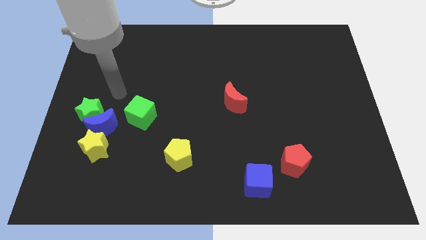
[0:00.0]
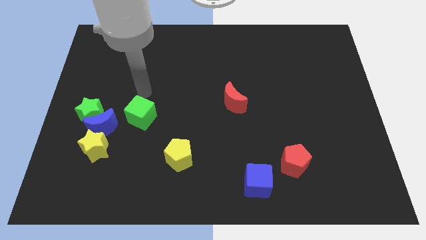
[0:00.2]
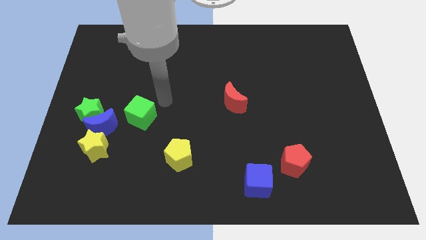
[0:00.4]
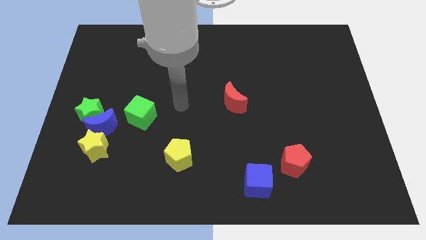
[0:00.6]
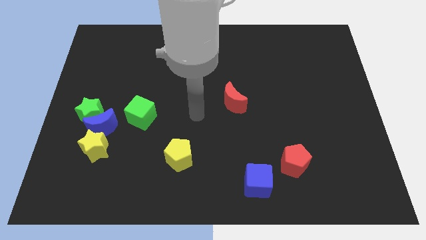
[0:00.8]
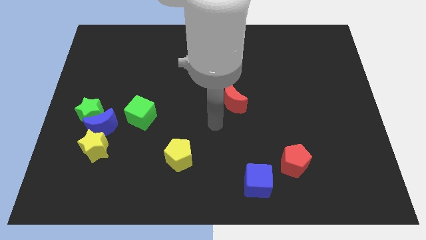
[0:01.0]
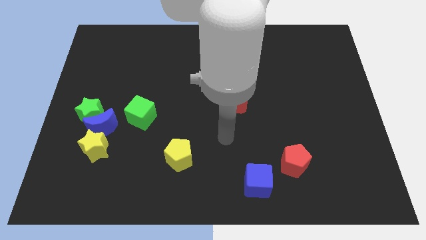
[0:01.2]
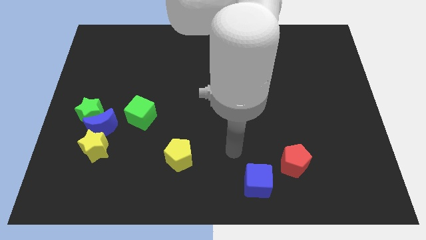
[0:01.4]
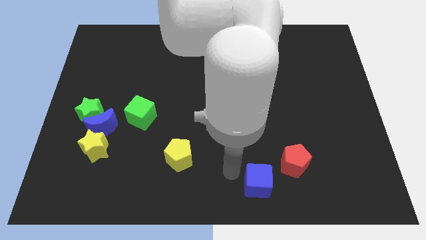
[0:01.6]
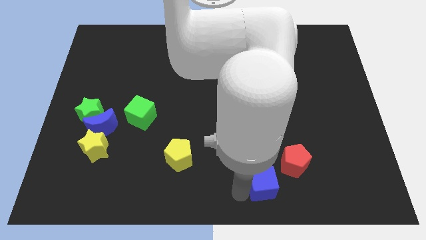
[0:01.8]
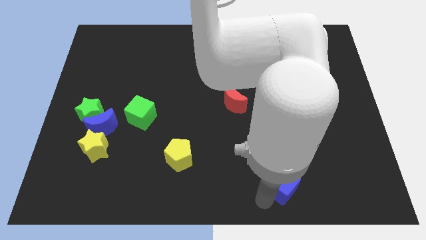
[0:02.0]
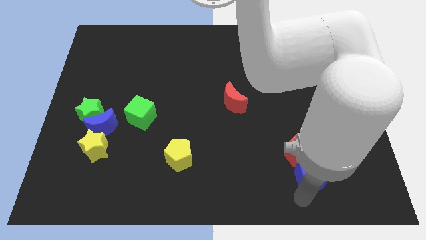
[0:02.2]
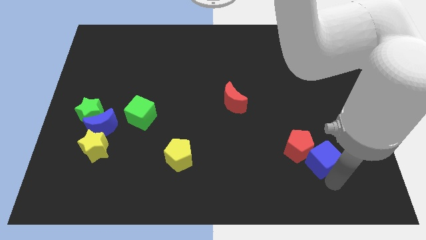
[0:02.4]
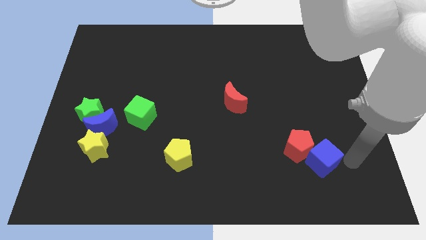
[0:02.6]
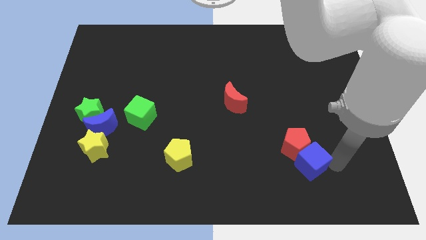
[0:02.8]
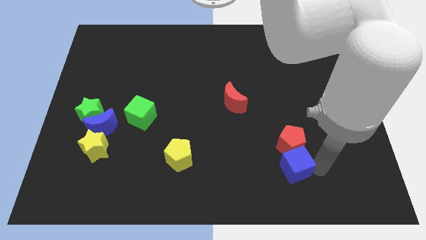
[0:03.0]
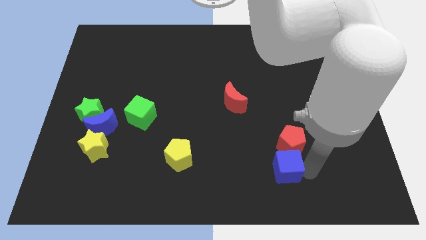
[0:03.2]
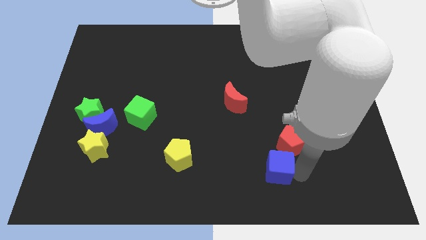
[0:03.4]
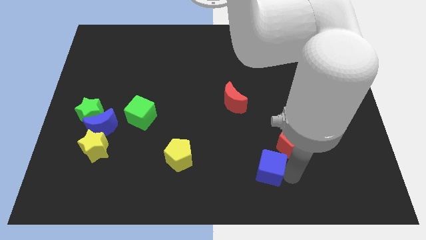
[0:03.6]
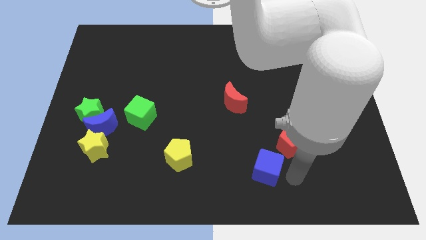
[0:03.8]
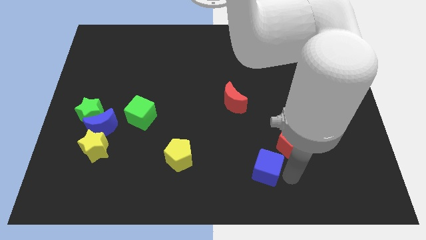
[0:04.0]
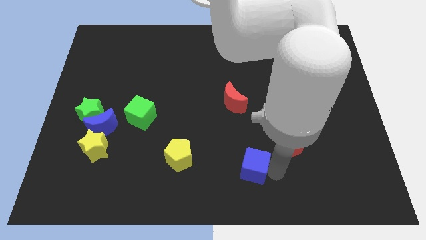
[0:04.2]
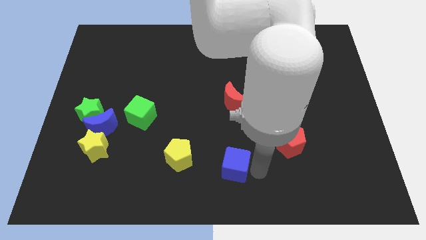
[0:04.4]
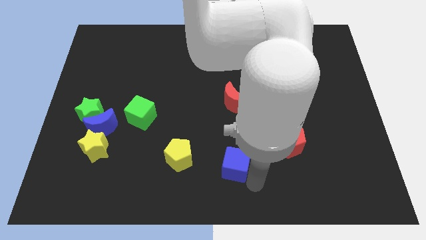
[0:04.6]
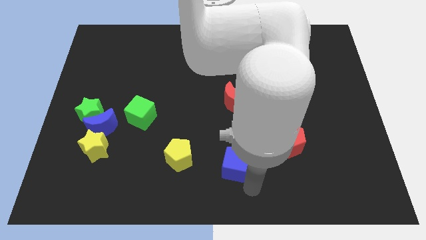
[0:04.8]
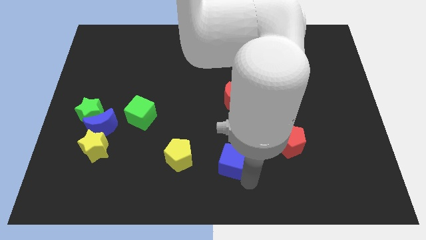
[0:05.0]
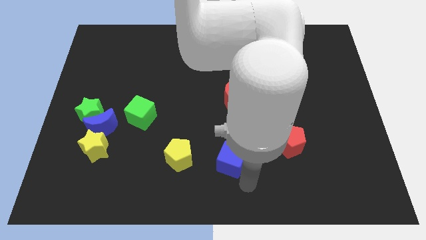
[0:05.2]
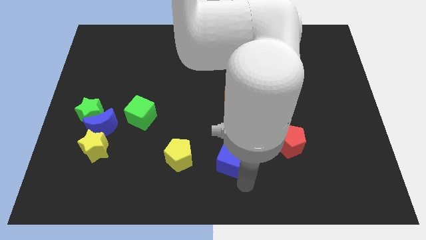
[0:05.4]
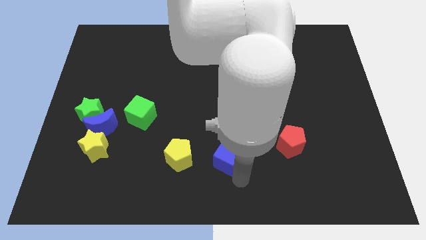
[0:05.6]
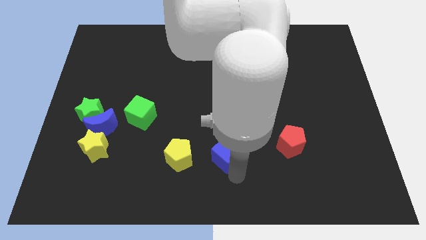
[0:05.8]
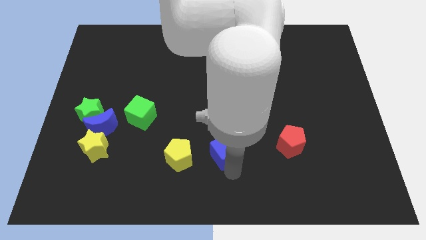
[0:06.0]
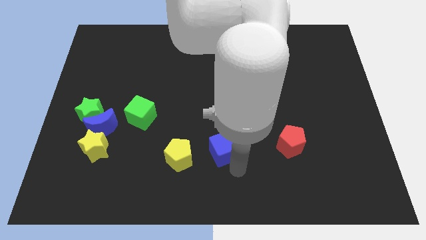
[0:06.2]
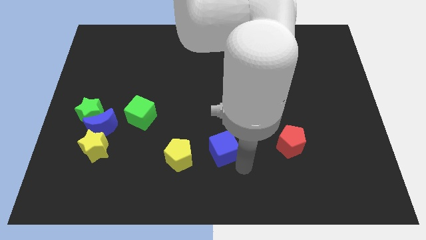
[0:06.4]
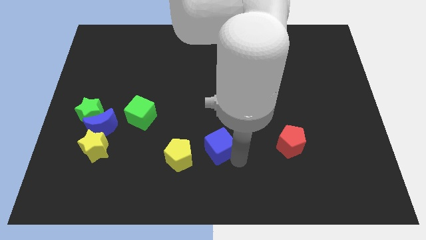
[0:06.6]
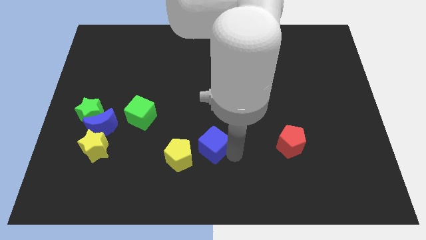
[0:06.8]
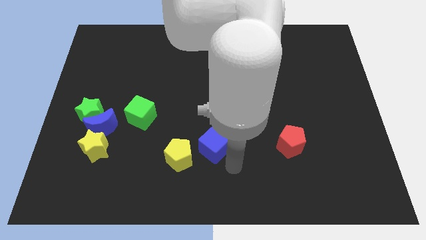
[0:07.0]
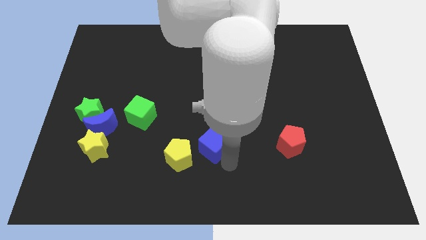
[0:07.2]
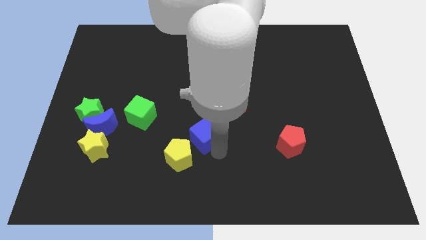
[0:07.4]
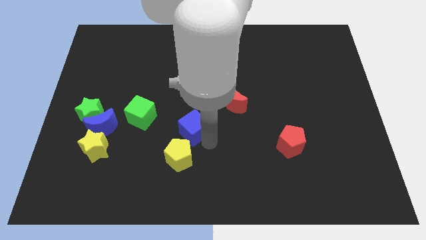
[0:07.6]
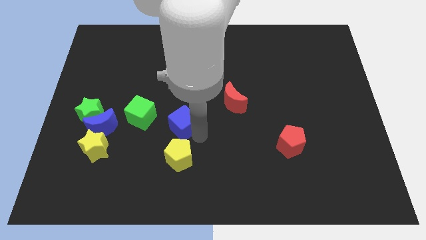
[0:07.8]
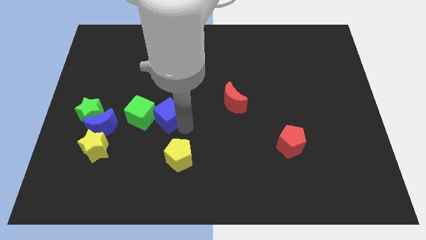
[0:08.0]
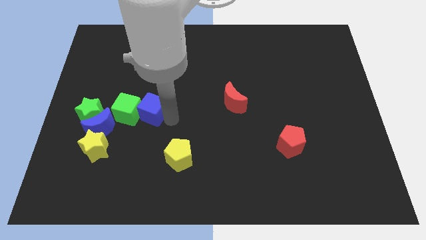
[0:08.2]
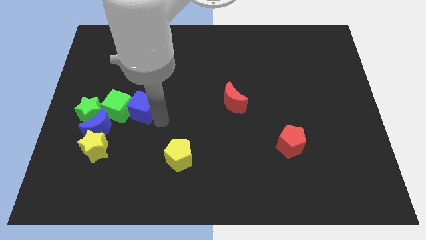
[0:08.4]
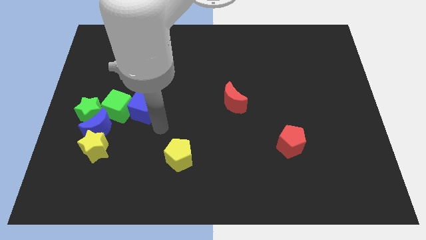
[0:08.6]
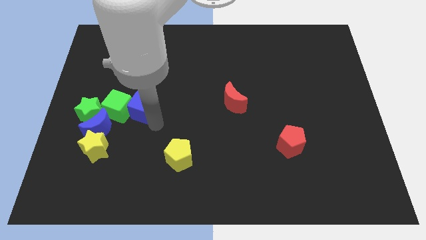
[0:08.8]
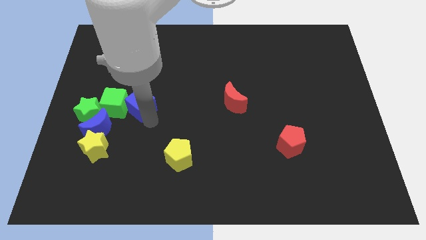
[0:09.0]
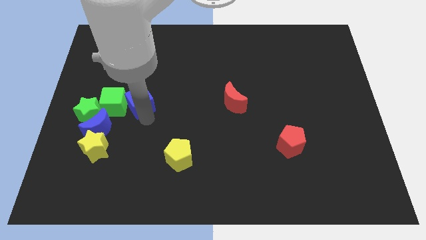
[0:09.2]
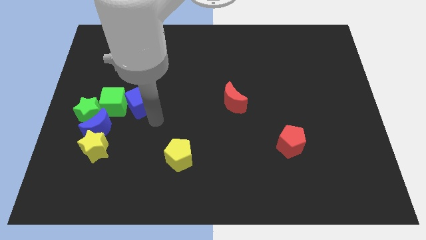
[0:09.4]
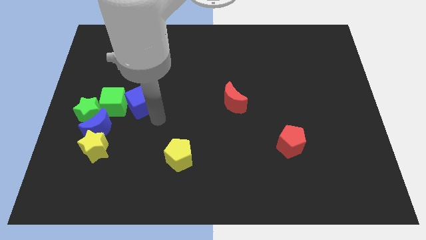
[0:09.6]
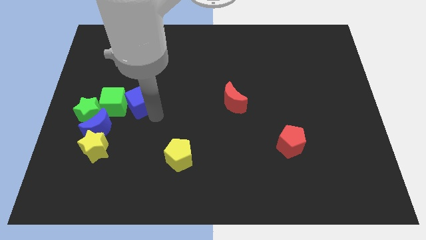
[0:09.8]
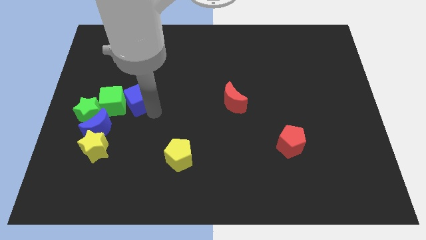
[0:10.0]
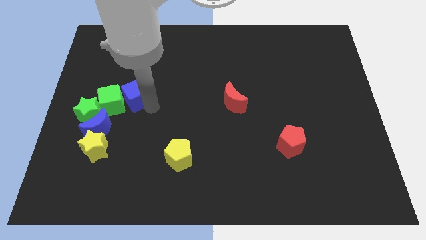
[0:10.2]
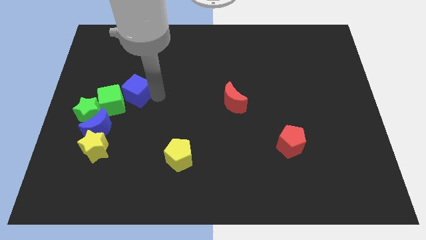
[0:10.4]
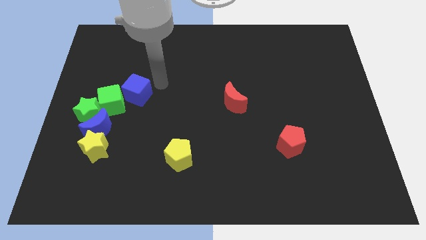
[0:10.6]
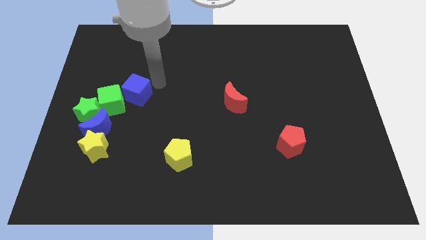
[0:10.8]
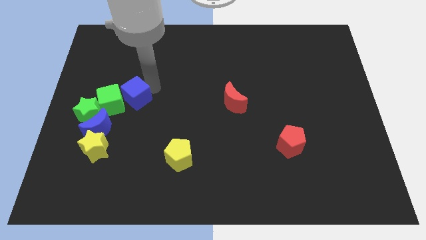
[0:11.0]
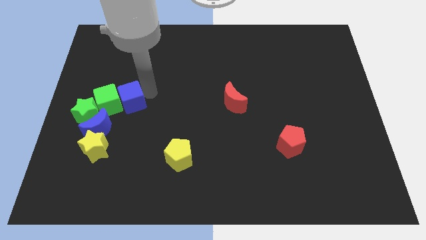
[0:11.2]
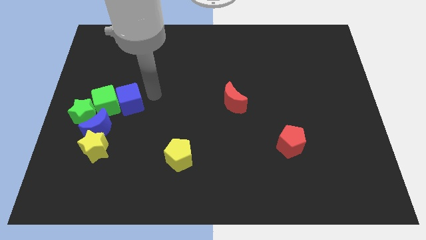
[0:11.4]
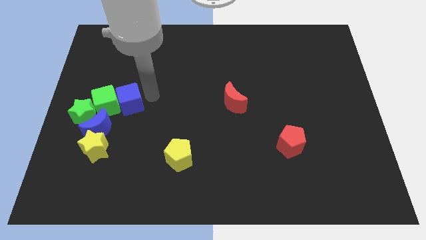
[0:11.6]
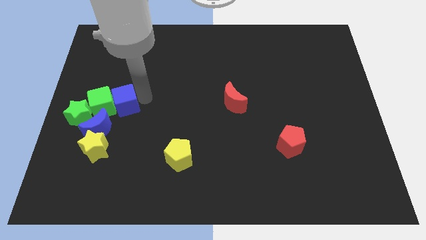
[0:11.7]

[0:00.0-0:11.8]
slide the blue cube above the yellow star

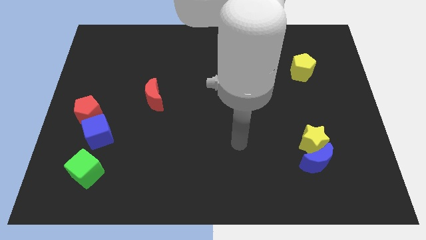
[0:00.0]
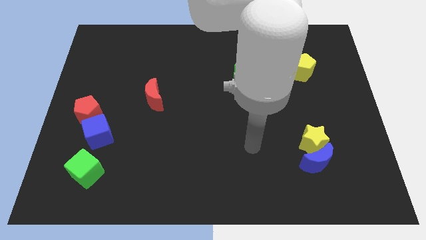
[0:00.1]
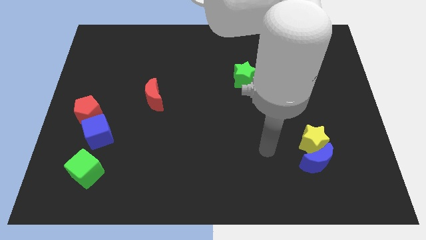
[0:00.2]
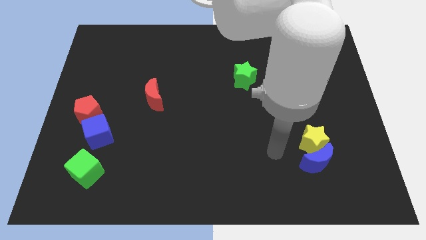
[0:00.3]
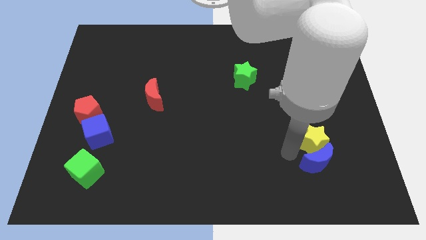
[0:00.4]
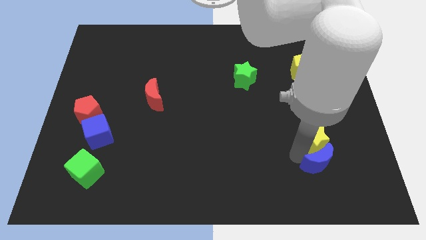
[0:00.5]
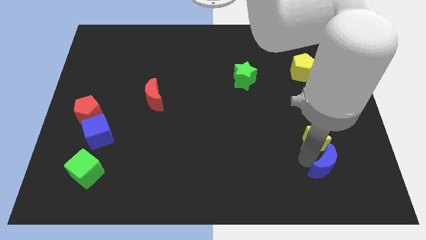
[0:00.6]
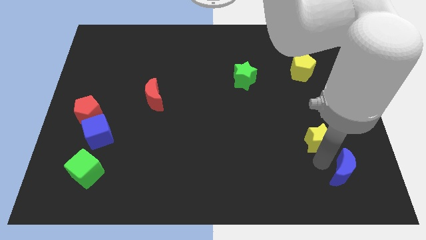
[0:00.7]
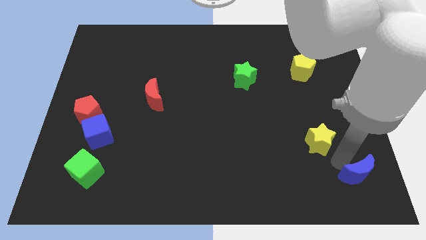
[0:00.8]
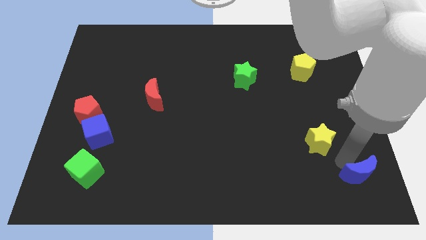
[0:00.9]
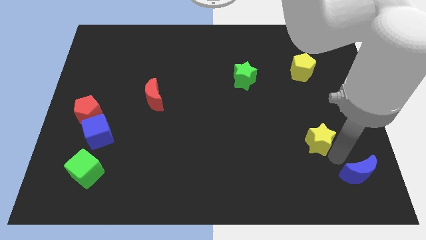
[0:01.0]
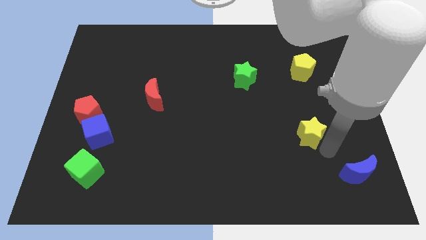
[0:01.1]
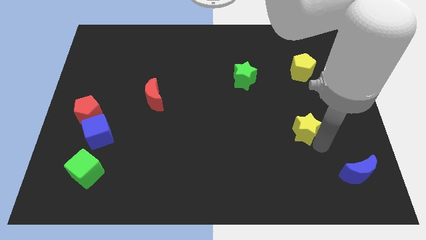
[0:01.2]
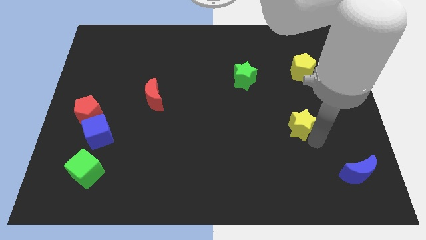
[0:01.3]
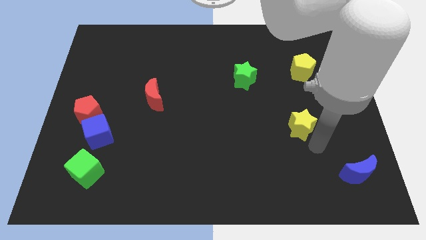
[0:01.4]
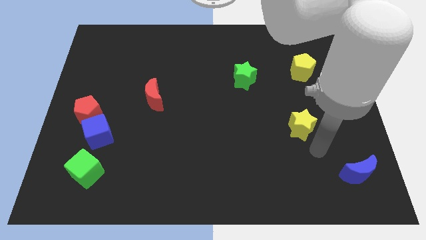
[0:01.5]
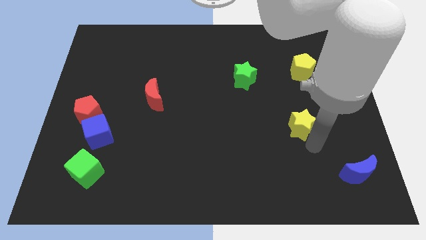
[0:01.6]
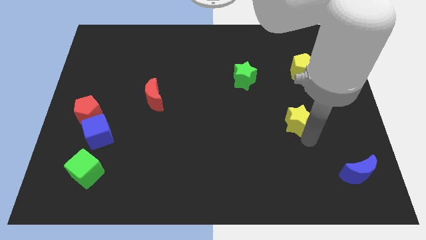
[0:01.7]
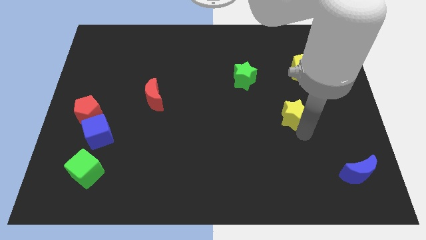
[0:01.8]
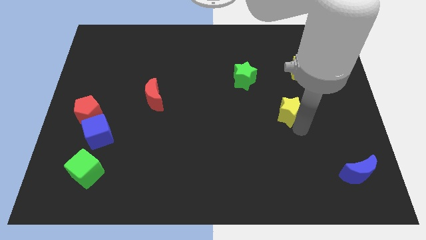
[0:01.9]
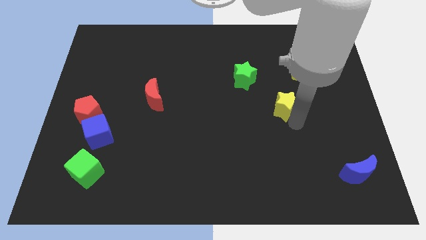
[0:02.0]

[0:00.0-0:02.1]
slide the yellow star diagonally down and to the right of the green star
